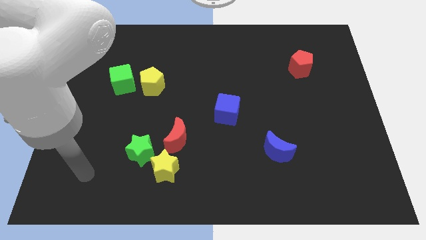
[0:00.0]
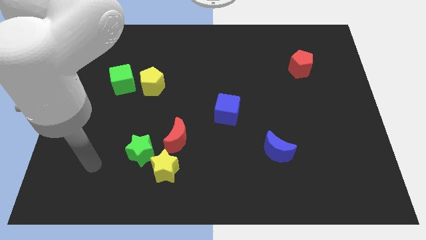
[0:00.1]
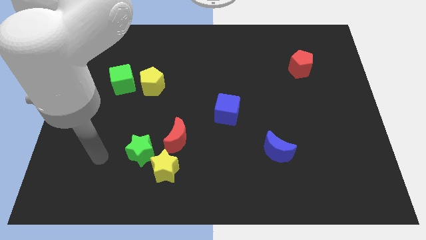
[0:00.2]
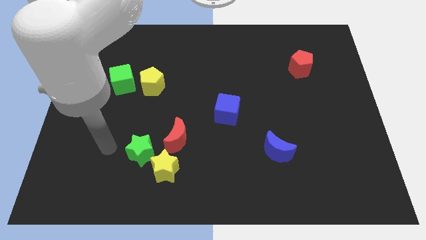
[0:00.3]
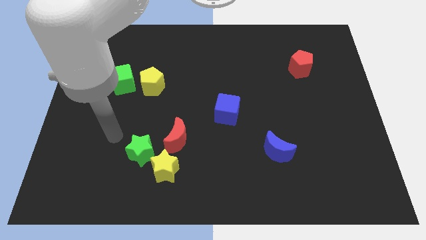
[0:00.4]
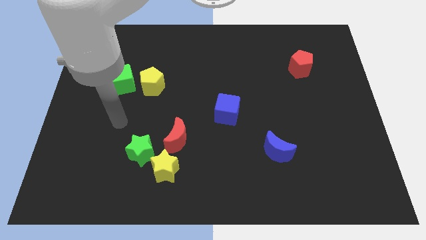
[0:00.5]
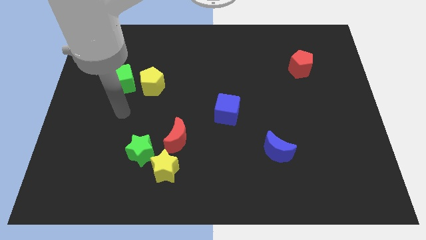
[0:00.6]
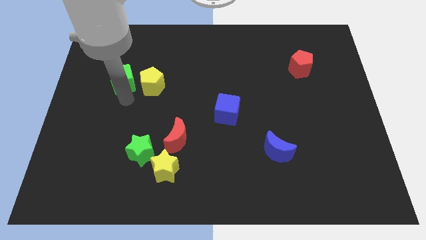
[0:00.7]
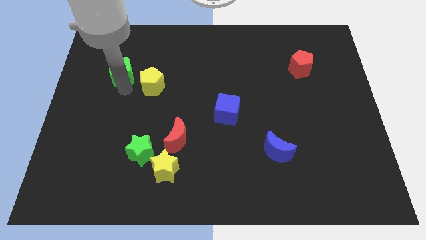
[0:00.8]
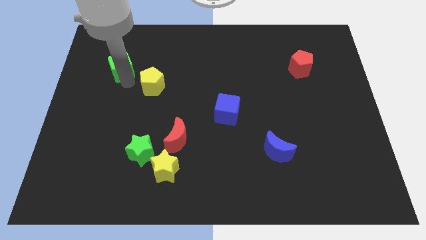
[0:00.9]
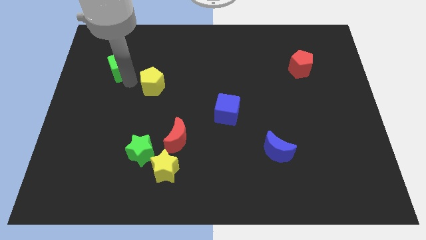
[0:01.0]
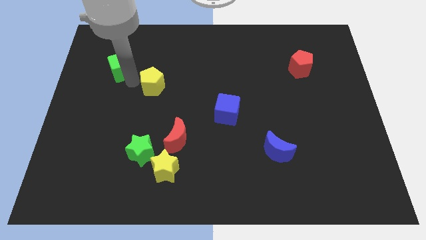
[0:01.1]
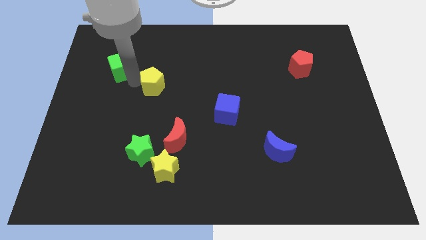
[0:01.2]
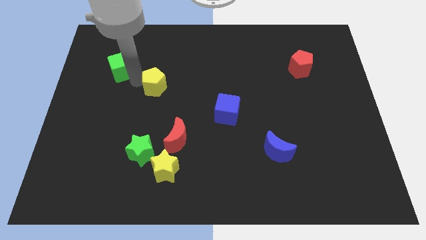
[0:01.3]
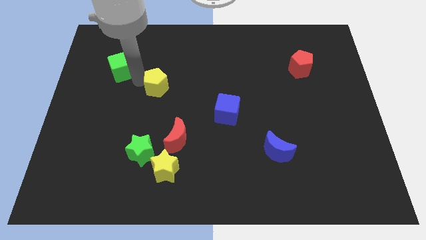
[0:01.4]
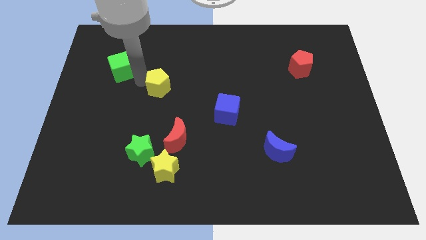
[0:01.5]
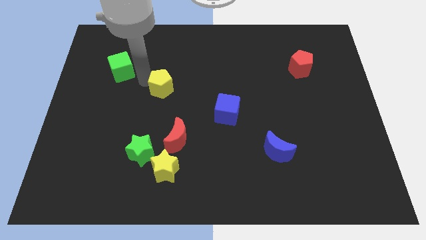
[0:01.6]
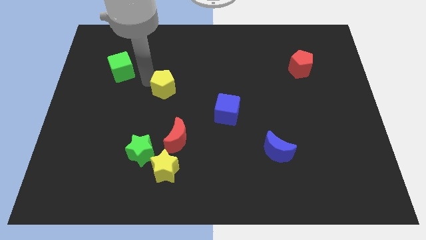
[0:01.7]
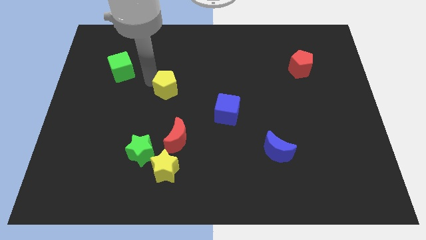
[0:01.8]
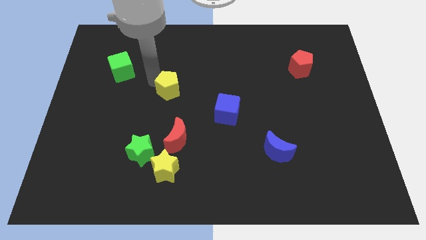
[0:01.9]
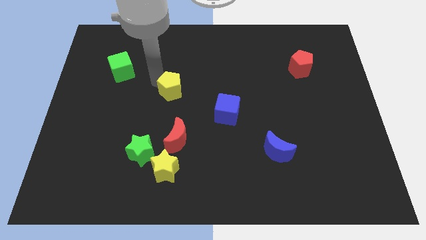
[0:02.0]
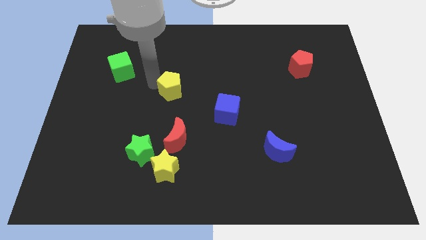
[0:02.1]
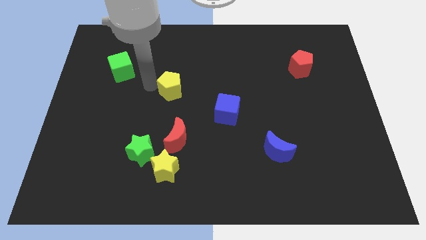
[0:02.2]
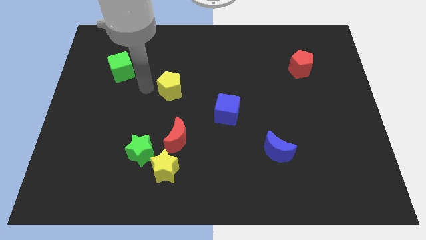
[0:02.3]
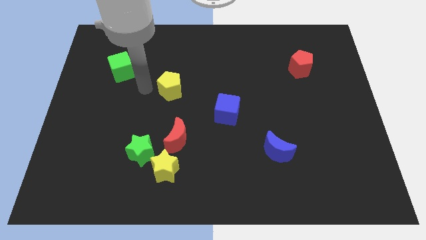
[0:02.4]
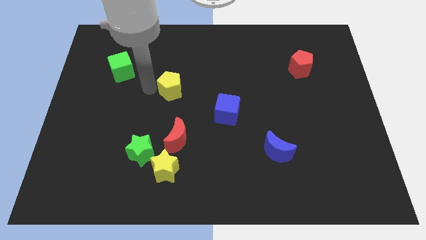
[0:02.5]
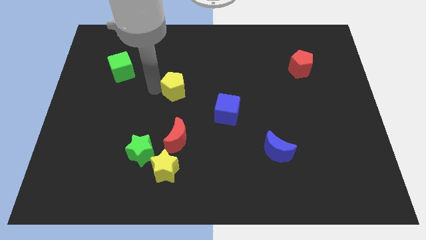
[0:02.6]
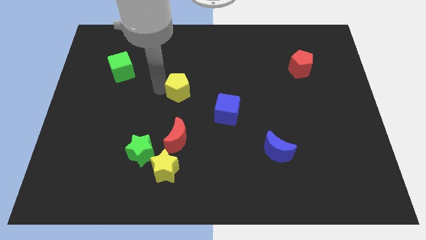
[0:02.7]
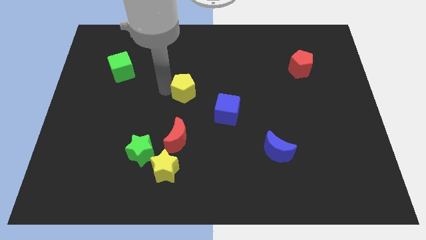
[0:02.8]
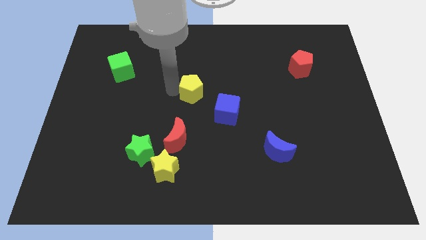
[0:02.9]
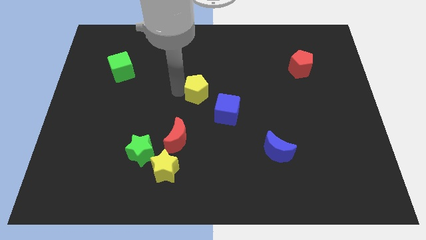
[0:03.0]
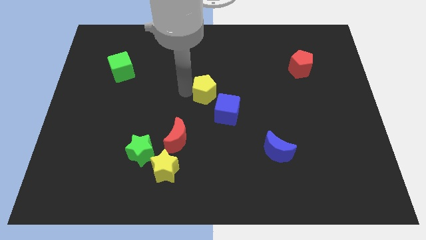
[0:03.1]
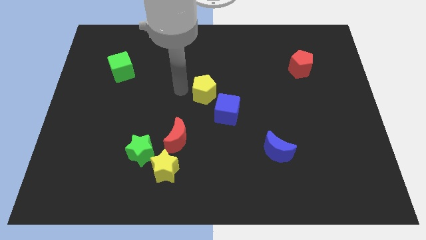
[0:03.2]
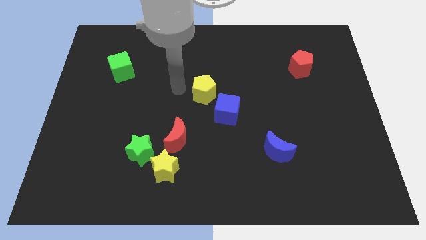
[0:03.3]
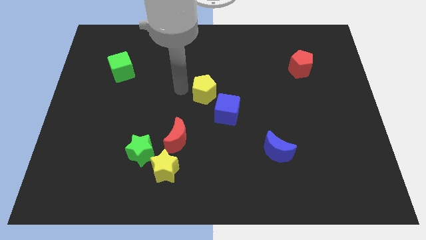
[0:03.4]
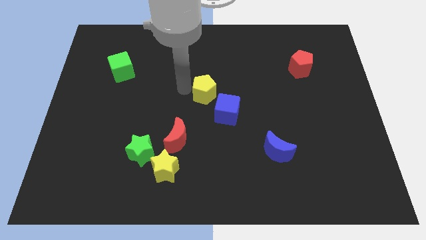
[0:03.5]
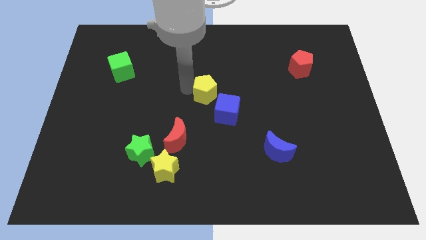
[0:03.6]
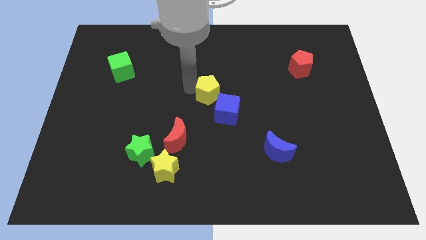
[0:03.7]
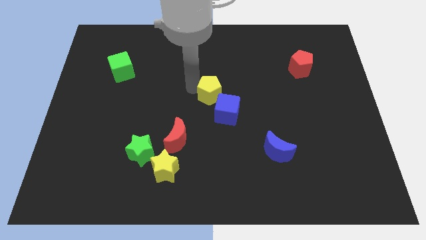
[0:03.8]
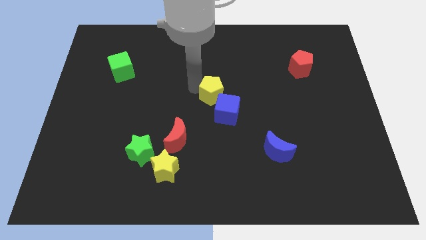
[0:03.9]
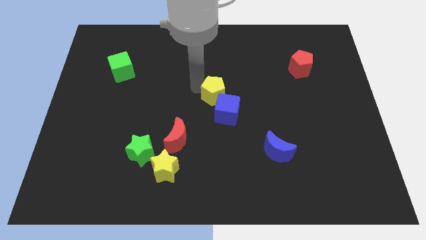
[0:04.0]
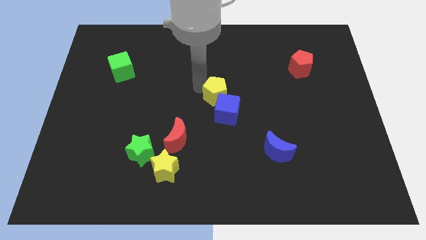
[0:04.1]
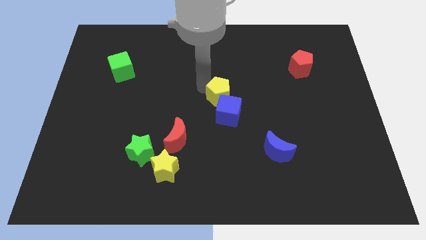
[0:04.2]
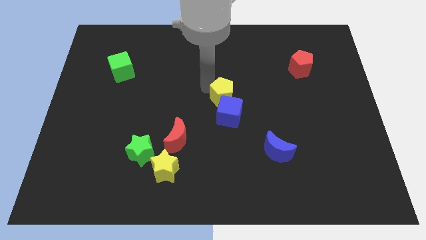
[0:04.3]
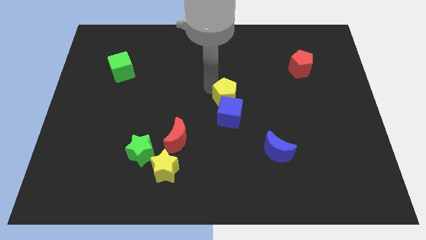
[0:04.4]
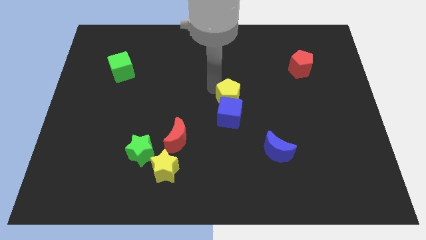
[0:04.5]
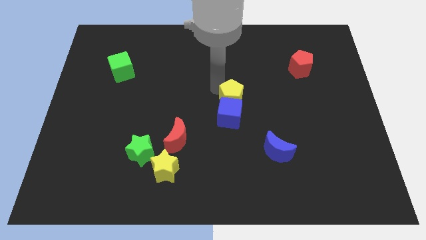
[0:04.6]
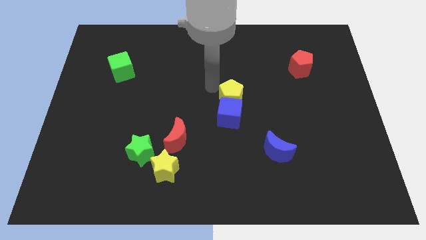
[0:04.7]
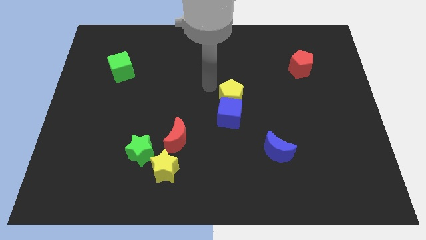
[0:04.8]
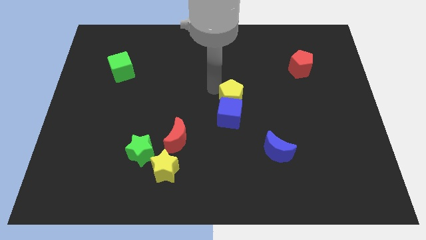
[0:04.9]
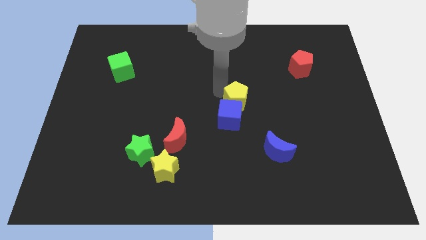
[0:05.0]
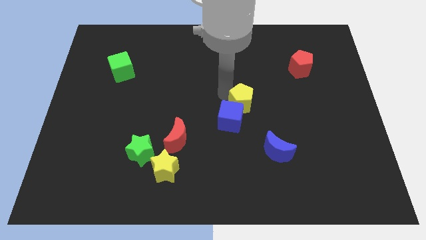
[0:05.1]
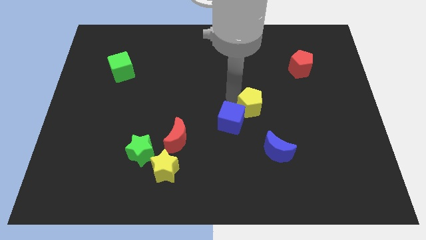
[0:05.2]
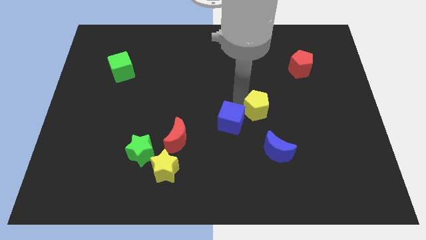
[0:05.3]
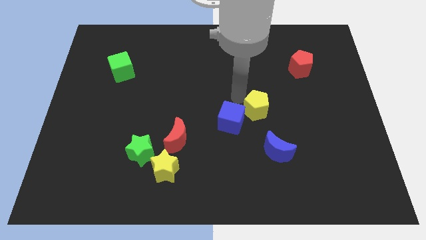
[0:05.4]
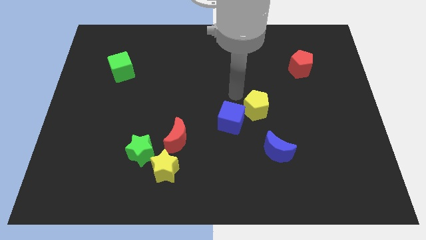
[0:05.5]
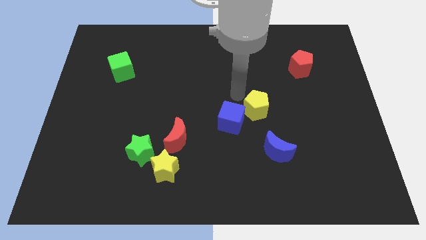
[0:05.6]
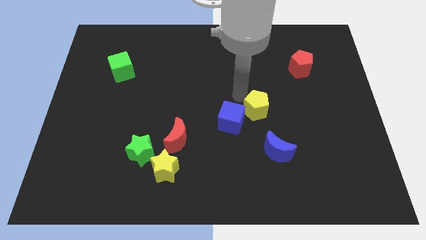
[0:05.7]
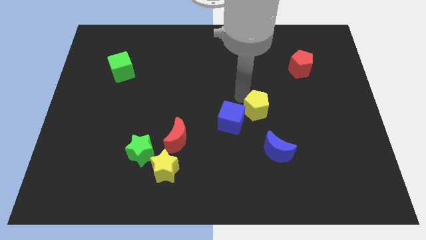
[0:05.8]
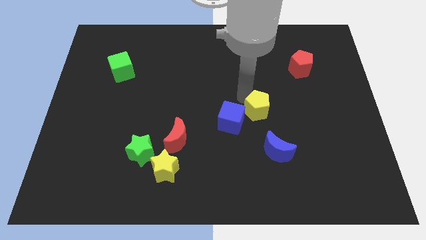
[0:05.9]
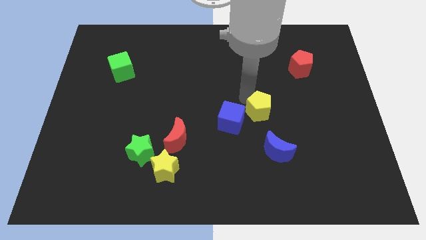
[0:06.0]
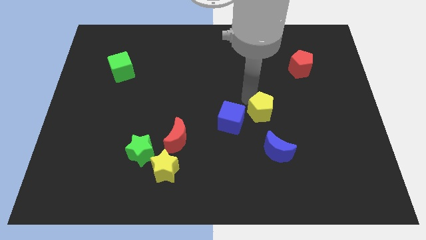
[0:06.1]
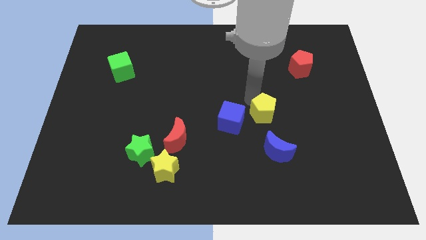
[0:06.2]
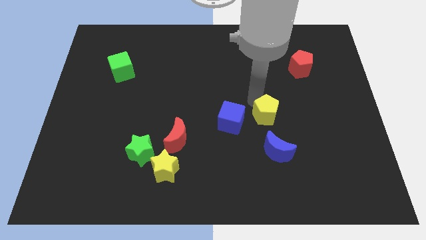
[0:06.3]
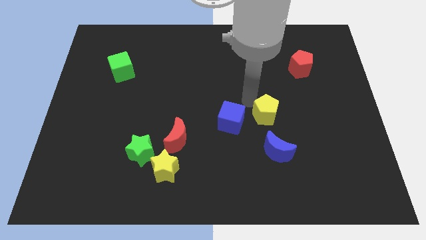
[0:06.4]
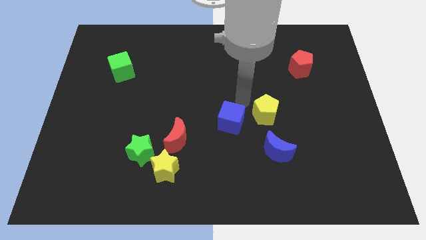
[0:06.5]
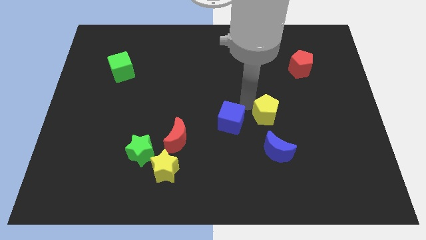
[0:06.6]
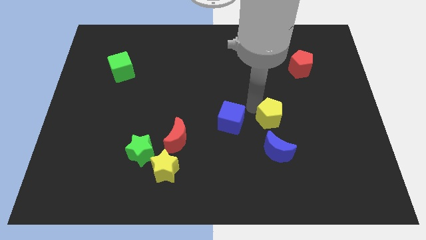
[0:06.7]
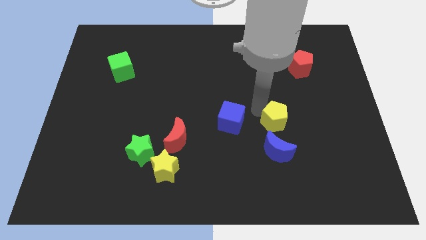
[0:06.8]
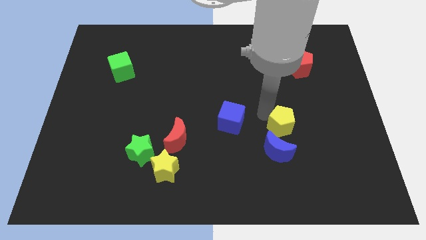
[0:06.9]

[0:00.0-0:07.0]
move the yellow pentagon diagonally up and to the right of the blue moon
